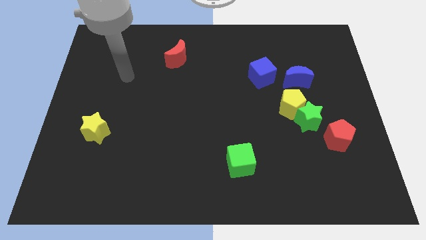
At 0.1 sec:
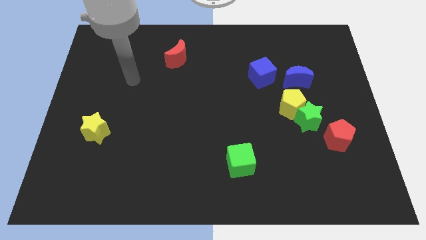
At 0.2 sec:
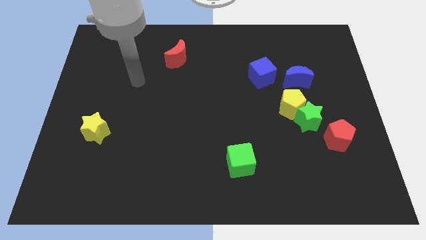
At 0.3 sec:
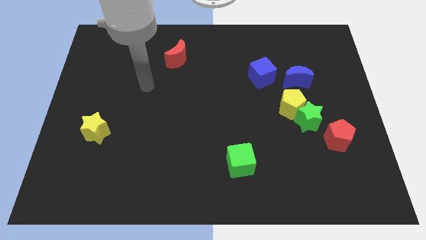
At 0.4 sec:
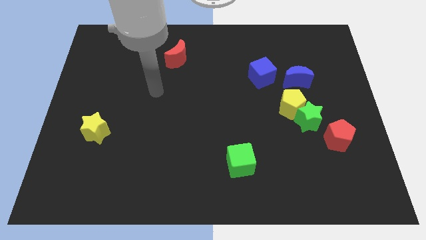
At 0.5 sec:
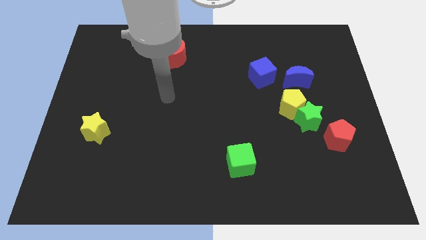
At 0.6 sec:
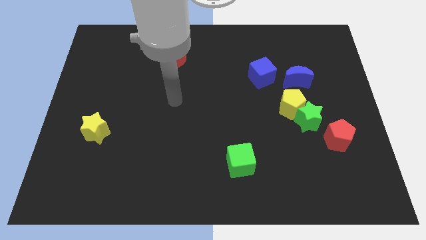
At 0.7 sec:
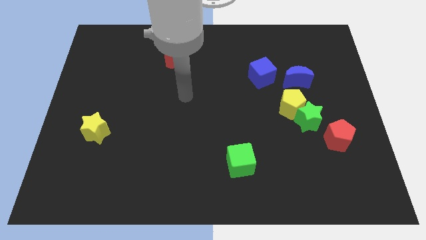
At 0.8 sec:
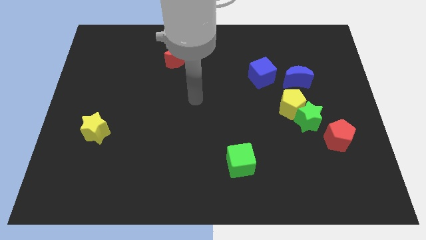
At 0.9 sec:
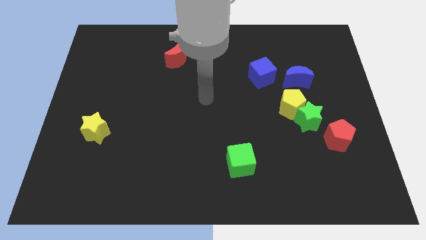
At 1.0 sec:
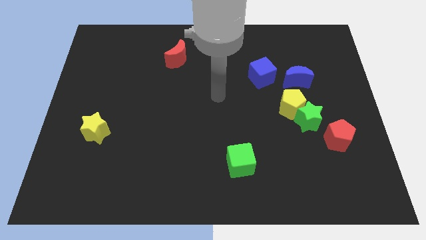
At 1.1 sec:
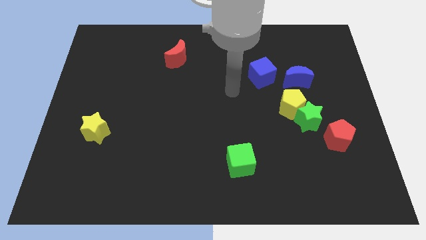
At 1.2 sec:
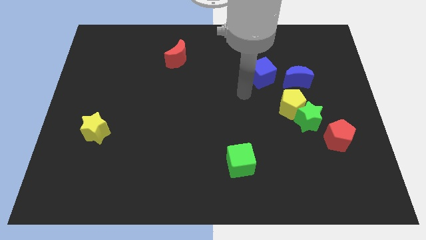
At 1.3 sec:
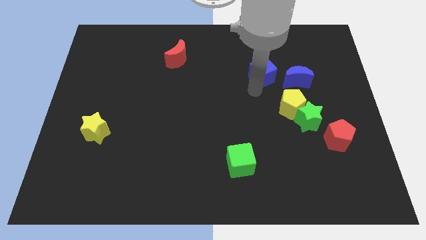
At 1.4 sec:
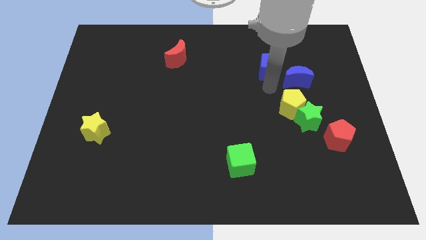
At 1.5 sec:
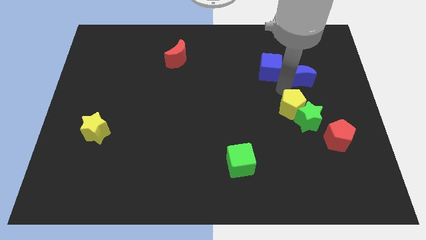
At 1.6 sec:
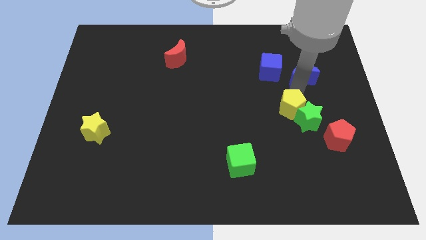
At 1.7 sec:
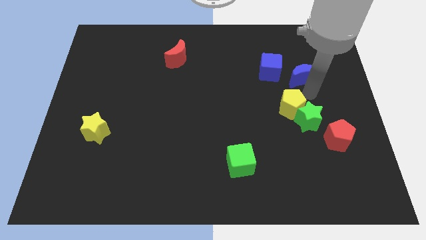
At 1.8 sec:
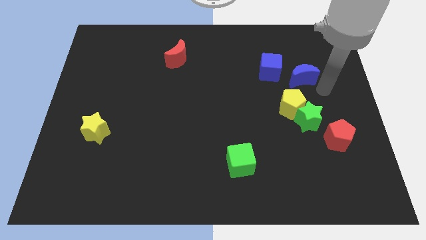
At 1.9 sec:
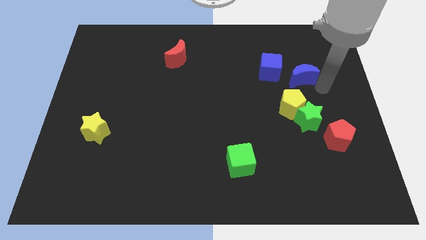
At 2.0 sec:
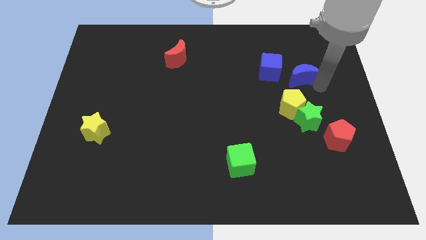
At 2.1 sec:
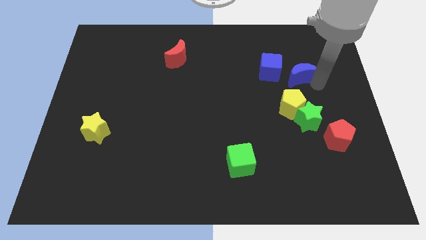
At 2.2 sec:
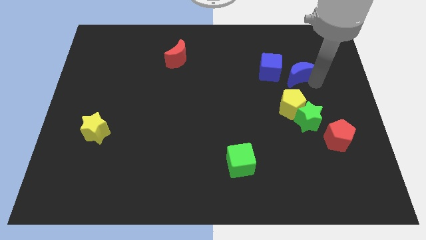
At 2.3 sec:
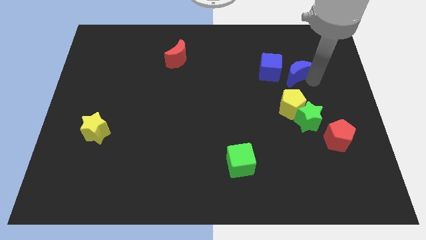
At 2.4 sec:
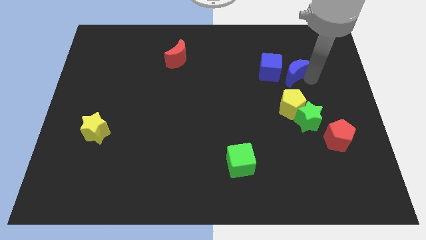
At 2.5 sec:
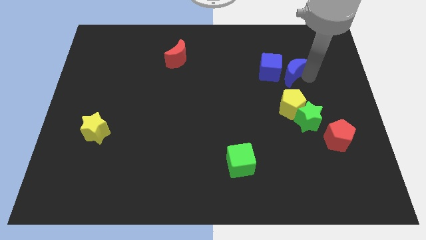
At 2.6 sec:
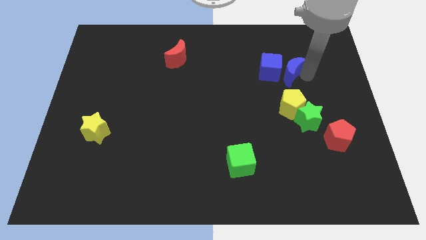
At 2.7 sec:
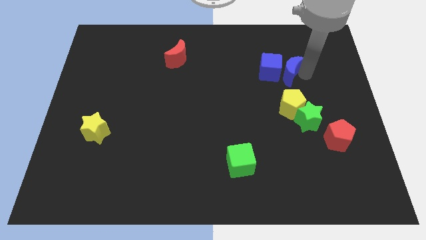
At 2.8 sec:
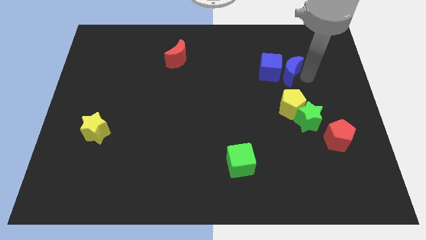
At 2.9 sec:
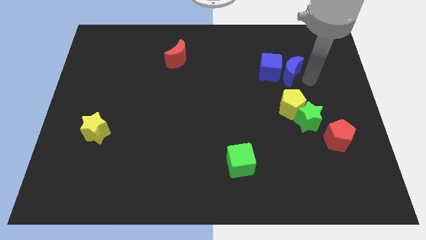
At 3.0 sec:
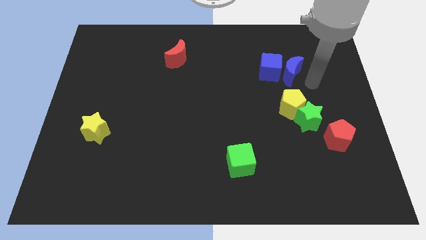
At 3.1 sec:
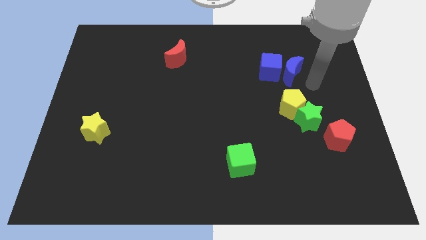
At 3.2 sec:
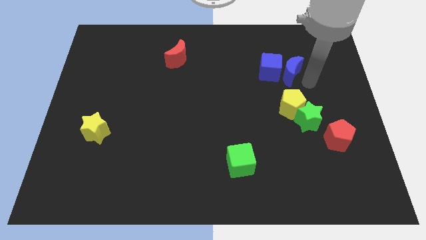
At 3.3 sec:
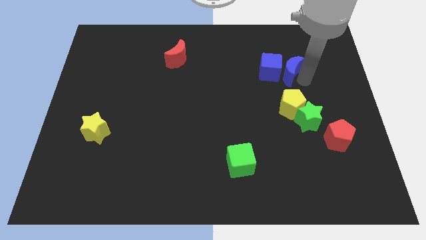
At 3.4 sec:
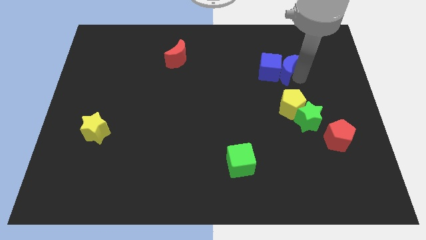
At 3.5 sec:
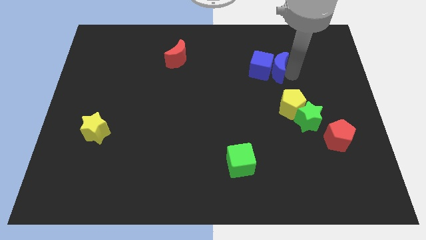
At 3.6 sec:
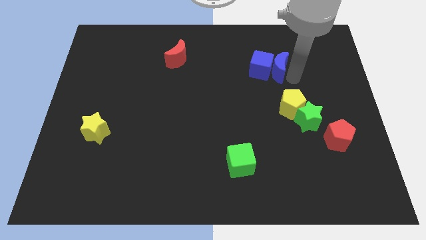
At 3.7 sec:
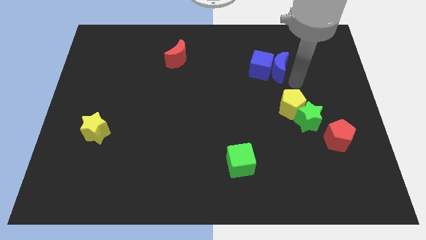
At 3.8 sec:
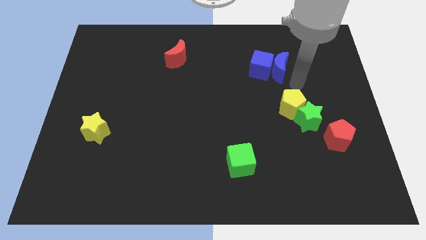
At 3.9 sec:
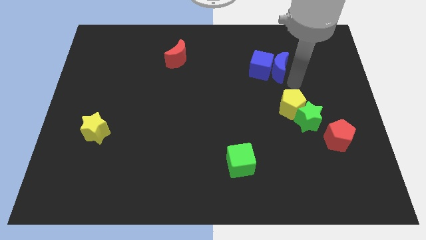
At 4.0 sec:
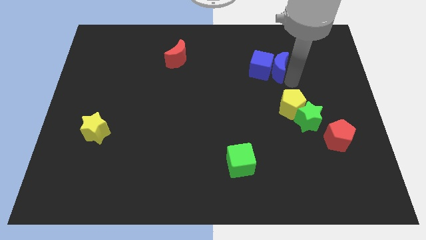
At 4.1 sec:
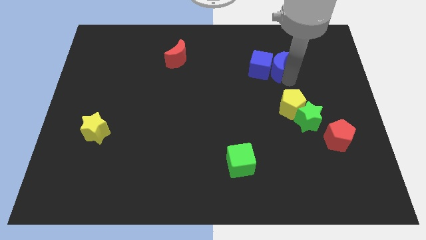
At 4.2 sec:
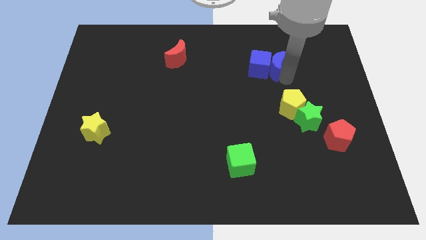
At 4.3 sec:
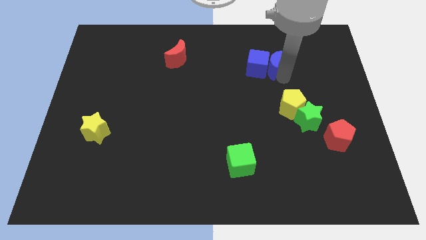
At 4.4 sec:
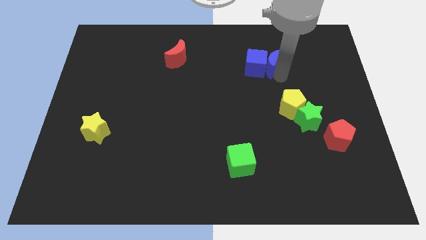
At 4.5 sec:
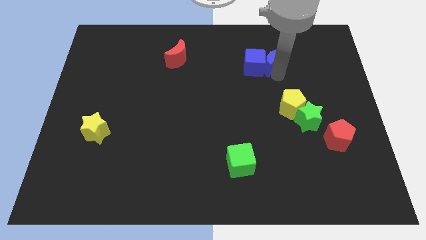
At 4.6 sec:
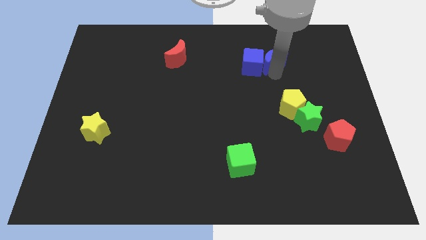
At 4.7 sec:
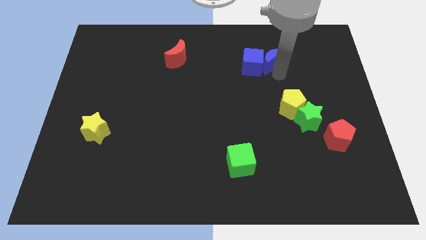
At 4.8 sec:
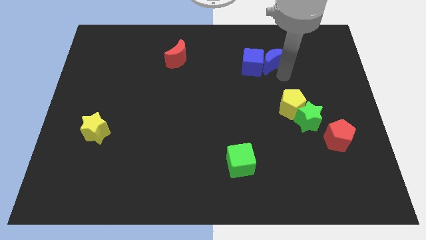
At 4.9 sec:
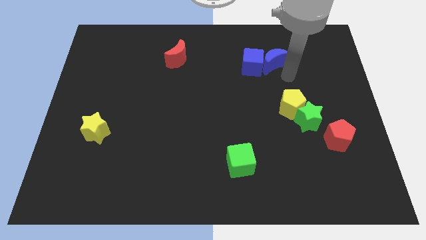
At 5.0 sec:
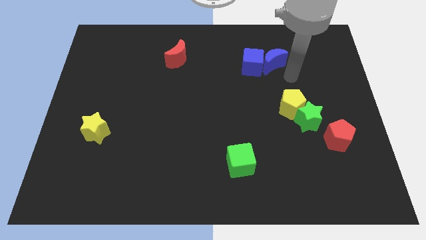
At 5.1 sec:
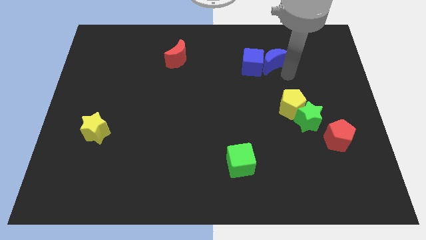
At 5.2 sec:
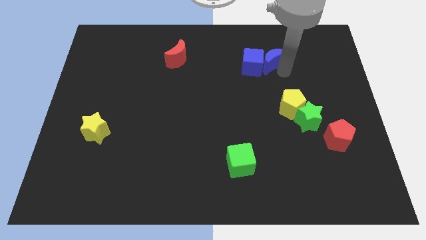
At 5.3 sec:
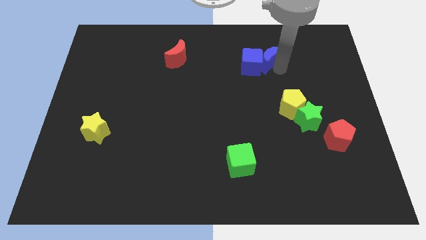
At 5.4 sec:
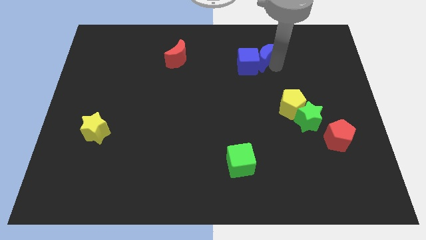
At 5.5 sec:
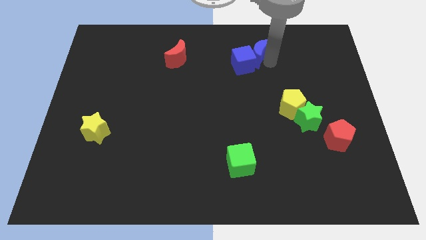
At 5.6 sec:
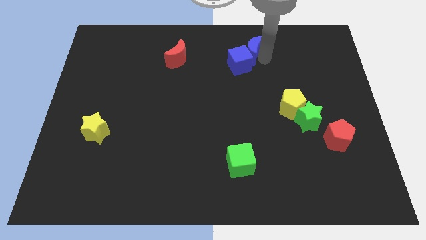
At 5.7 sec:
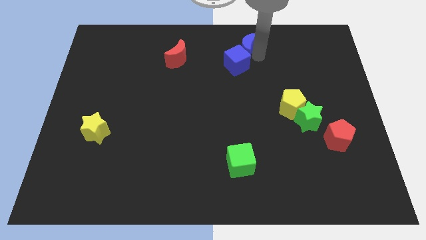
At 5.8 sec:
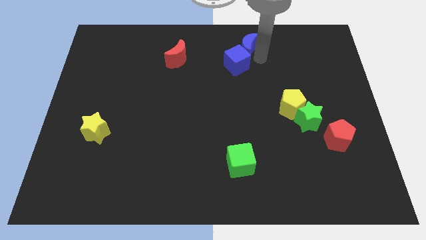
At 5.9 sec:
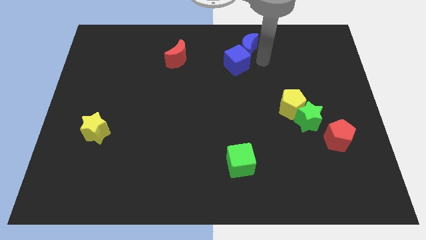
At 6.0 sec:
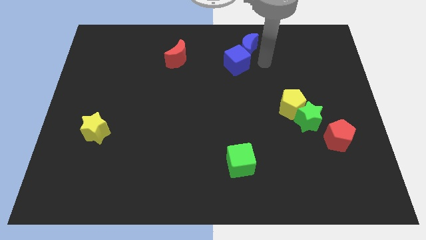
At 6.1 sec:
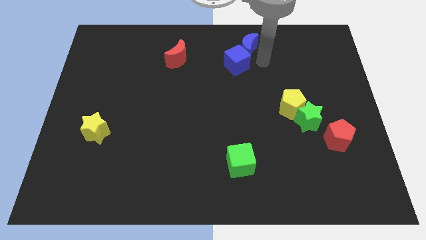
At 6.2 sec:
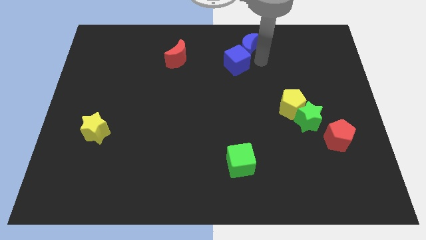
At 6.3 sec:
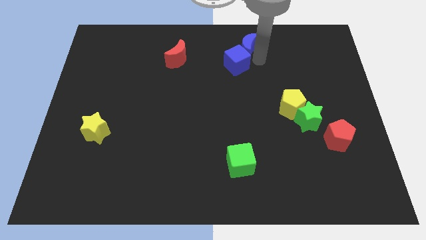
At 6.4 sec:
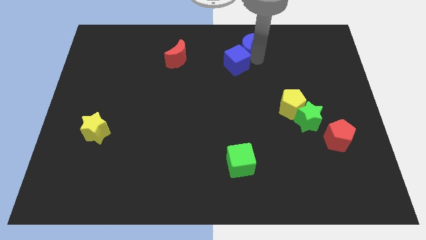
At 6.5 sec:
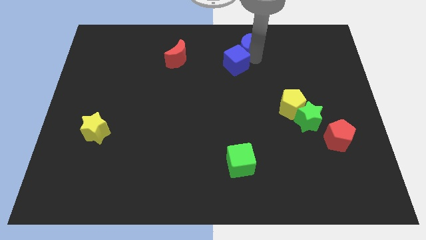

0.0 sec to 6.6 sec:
slide the blue moon to the towards your base
